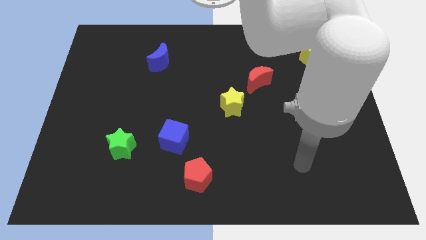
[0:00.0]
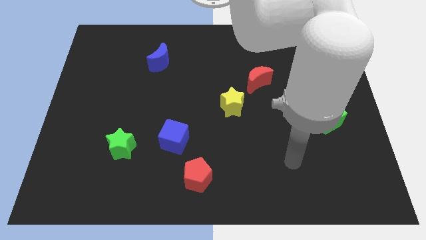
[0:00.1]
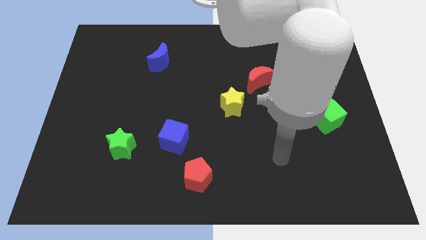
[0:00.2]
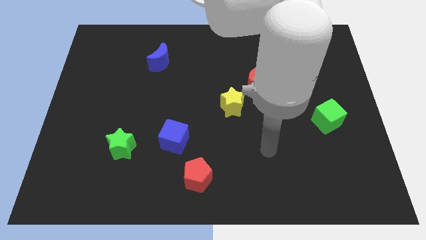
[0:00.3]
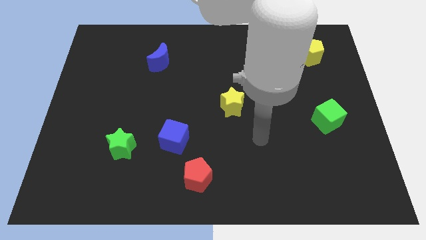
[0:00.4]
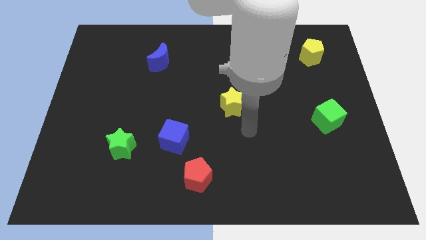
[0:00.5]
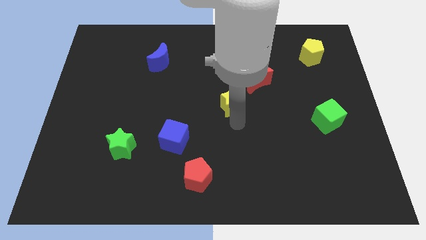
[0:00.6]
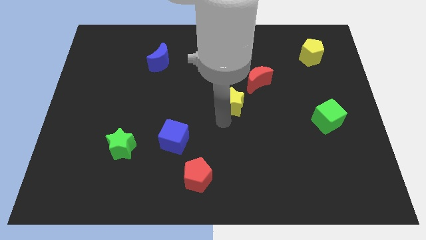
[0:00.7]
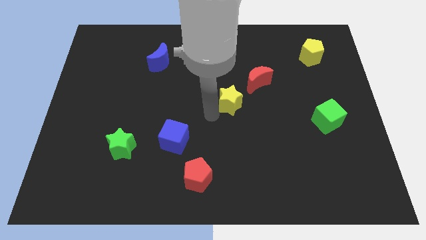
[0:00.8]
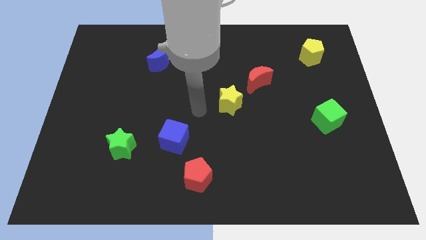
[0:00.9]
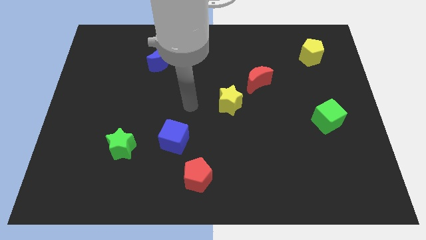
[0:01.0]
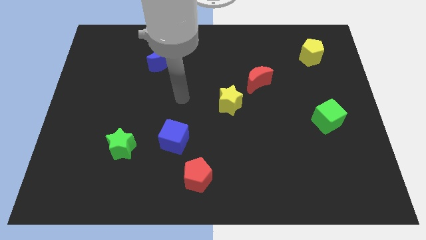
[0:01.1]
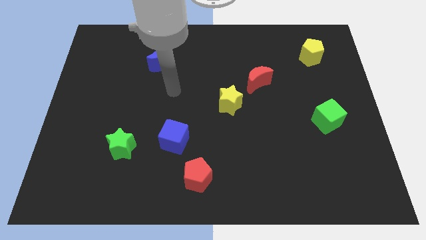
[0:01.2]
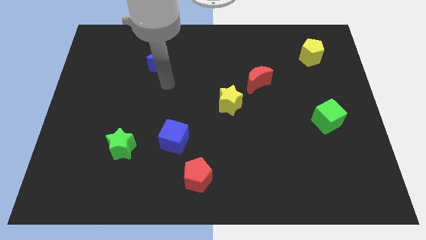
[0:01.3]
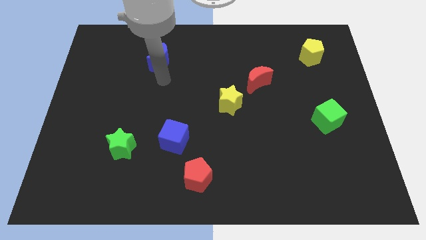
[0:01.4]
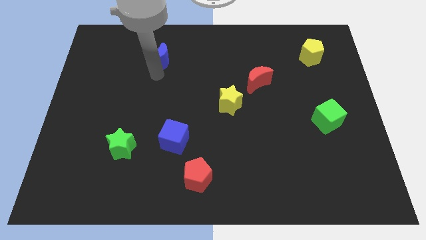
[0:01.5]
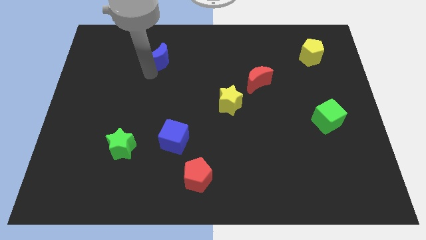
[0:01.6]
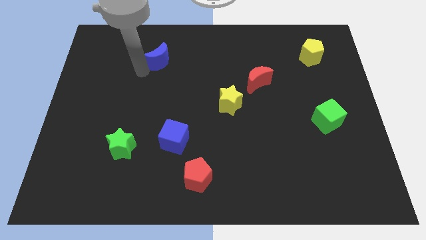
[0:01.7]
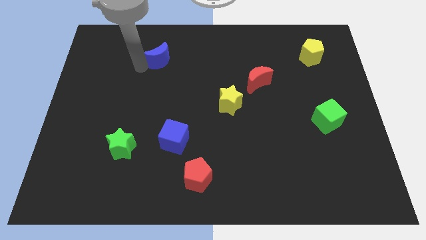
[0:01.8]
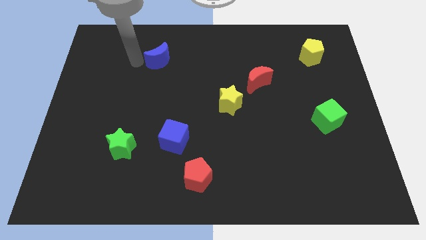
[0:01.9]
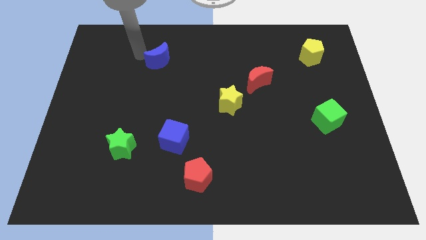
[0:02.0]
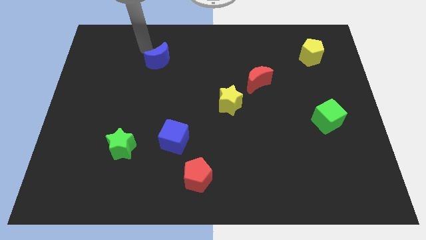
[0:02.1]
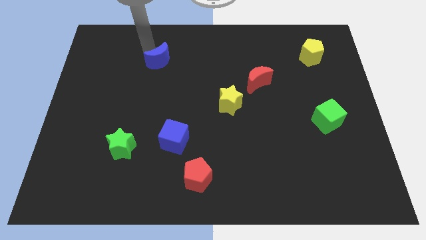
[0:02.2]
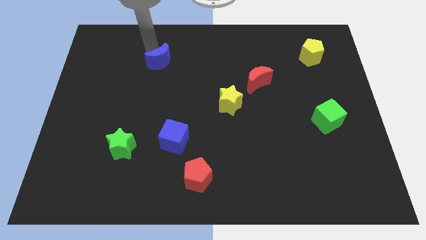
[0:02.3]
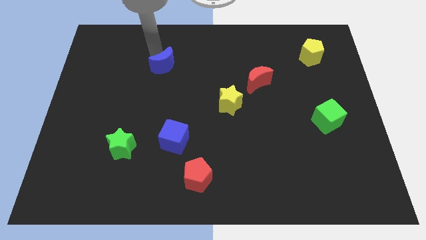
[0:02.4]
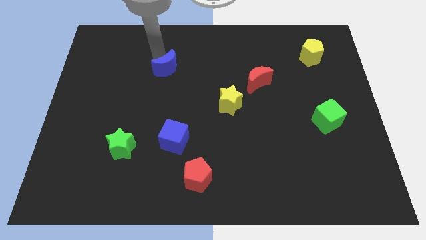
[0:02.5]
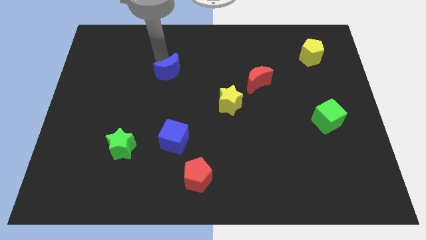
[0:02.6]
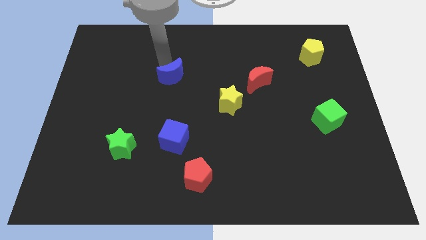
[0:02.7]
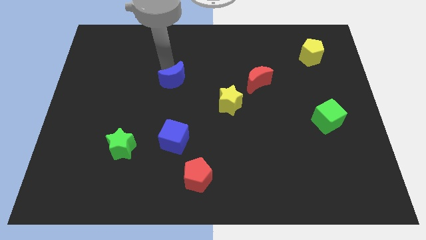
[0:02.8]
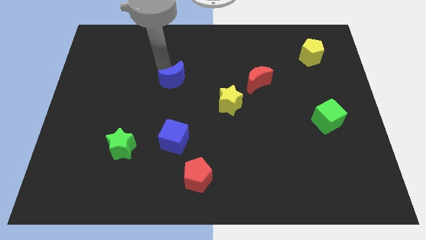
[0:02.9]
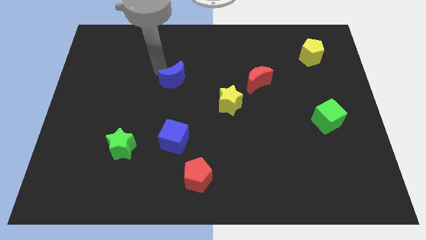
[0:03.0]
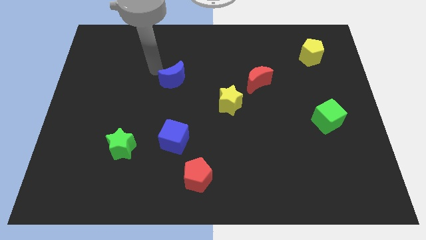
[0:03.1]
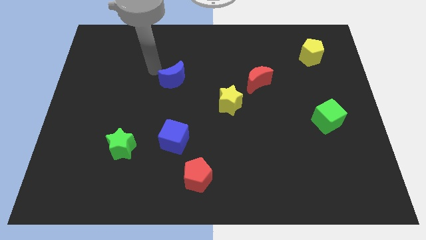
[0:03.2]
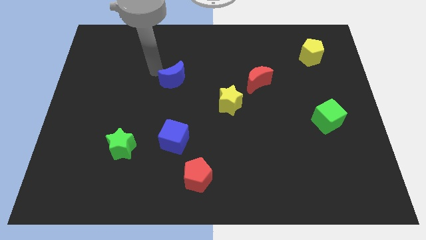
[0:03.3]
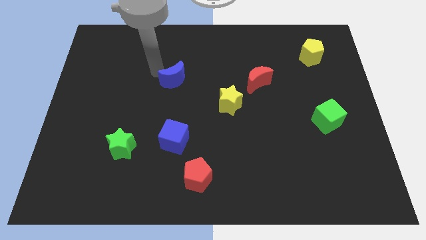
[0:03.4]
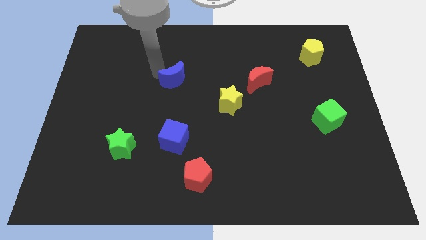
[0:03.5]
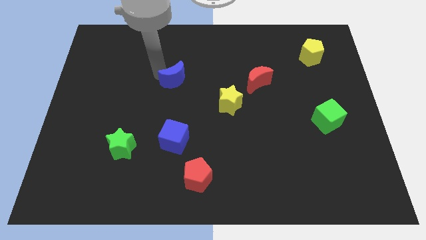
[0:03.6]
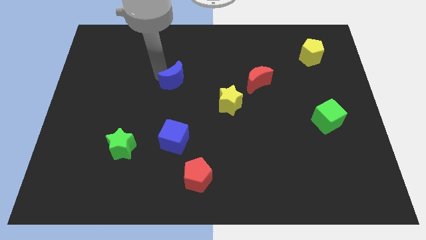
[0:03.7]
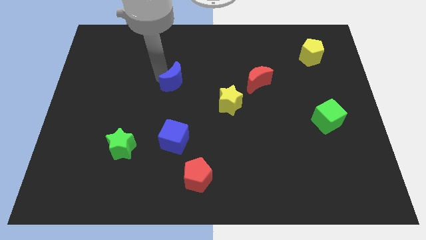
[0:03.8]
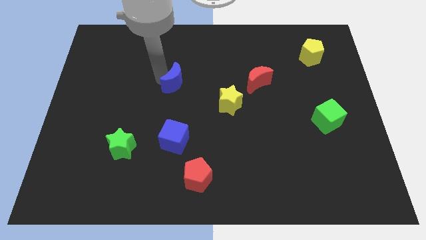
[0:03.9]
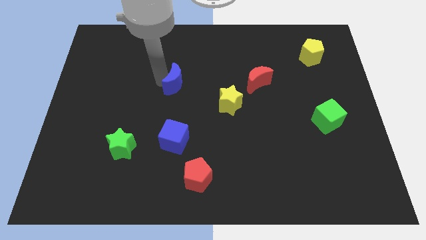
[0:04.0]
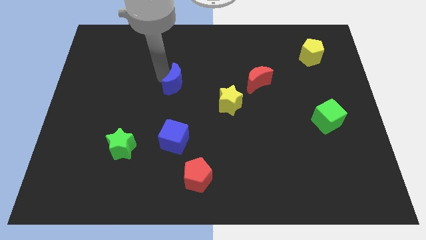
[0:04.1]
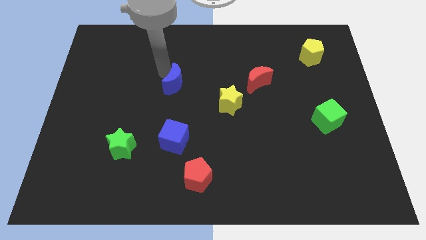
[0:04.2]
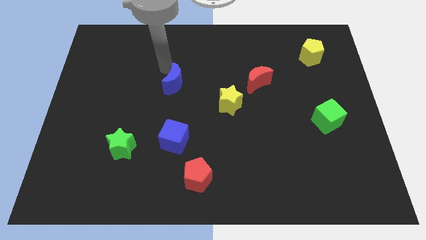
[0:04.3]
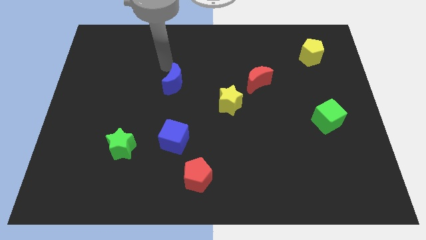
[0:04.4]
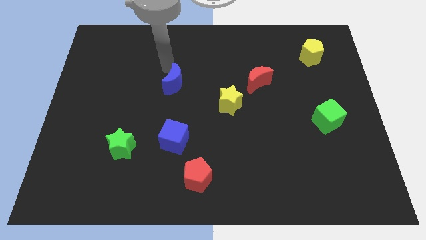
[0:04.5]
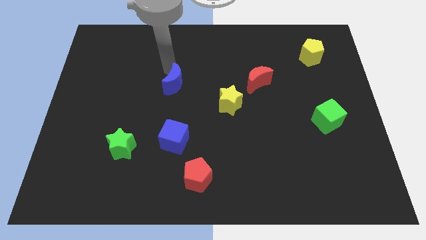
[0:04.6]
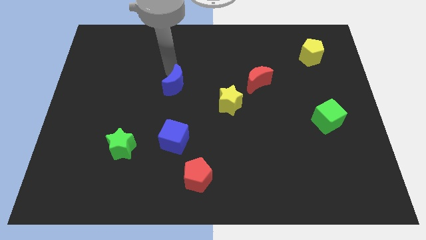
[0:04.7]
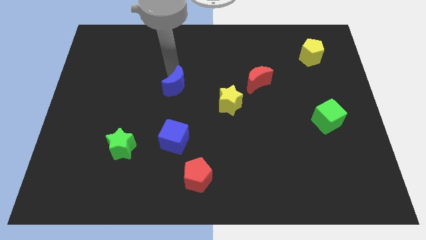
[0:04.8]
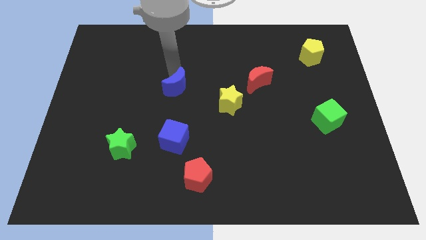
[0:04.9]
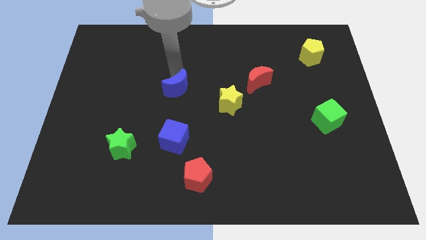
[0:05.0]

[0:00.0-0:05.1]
move the blue moon just left of the yellow star

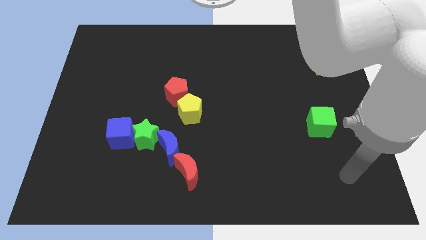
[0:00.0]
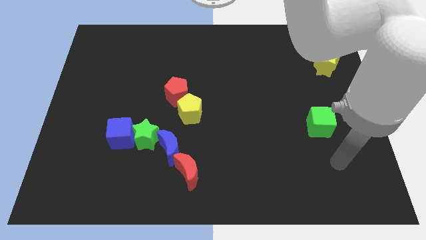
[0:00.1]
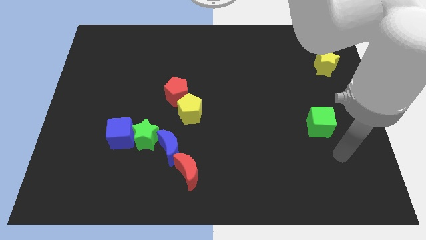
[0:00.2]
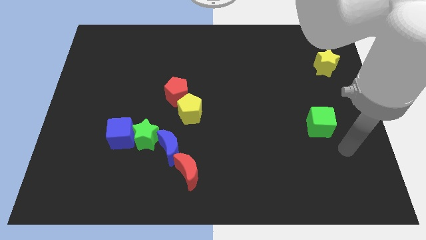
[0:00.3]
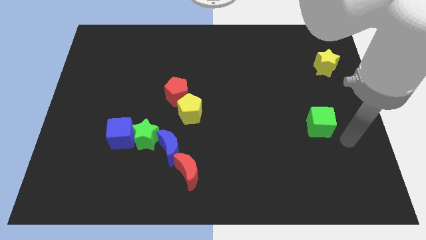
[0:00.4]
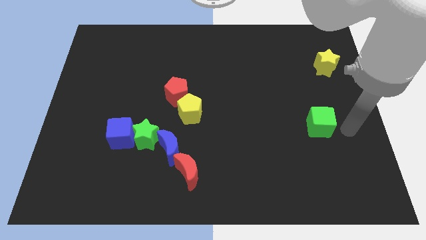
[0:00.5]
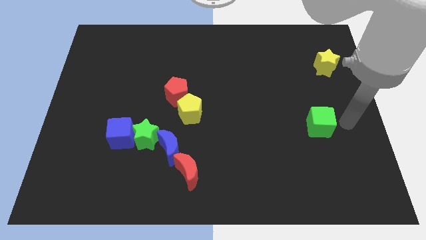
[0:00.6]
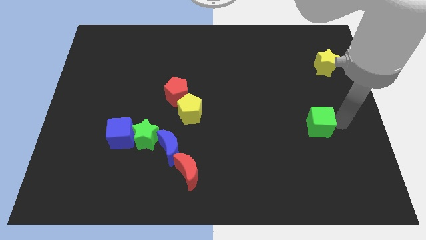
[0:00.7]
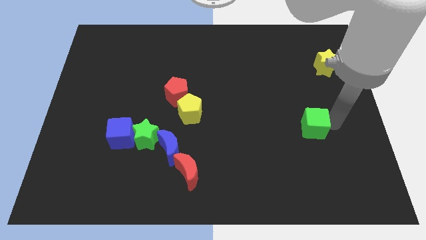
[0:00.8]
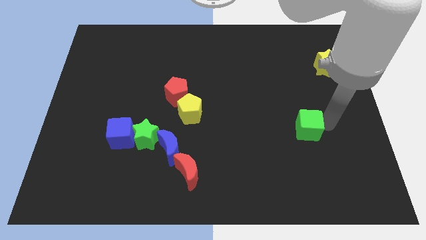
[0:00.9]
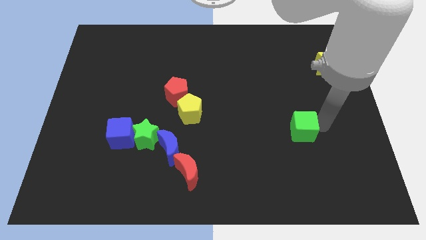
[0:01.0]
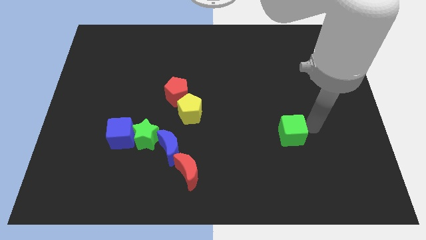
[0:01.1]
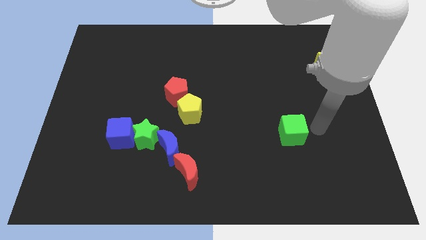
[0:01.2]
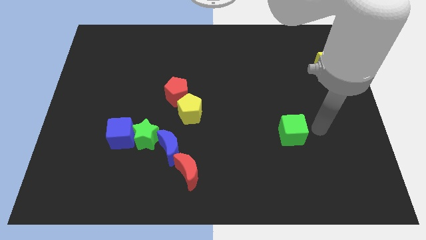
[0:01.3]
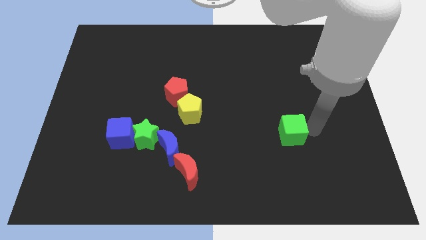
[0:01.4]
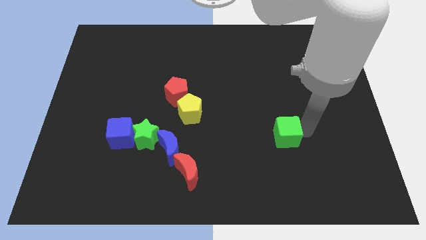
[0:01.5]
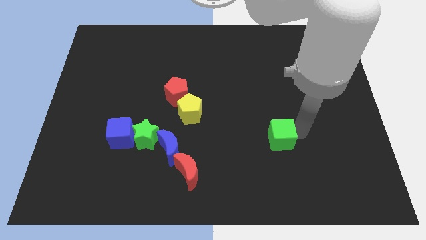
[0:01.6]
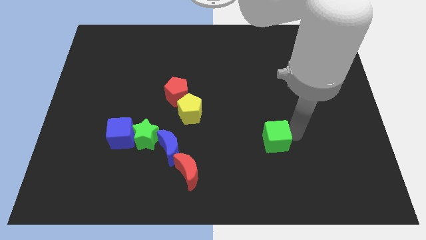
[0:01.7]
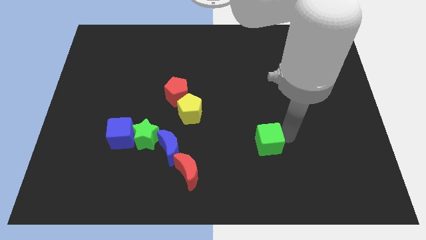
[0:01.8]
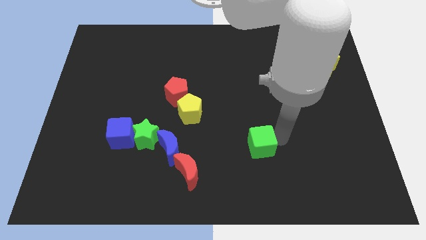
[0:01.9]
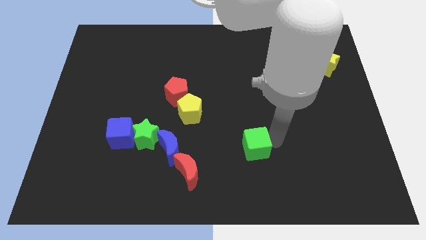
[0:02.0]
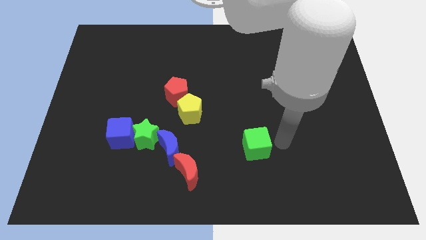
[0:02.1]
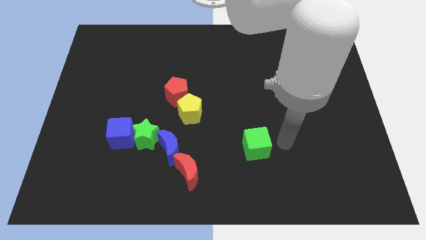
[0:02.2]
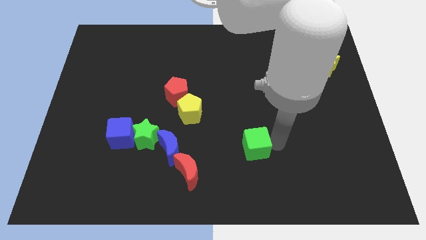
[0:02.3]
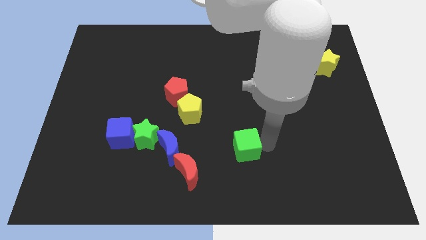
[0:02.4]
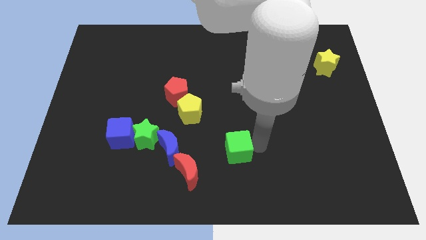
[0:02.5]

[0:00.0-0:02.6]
move the green cube to the top right side of the red moon

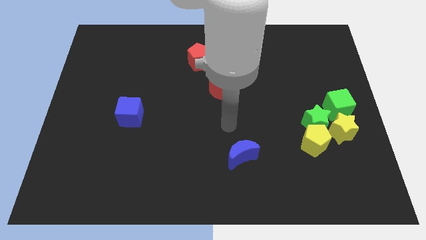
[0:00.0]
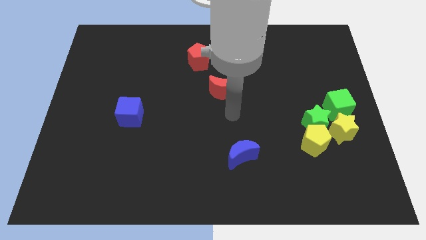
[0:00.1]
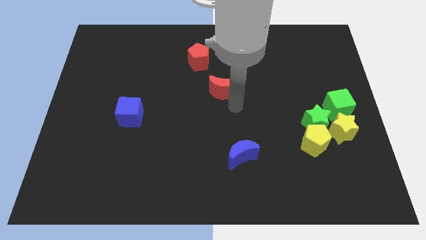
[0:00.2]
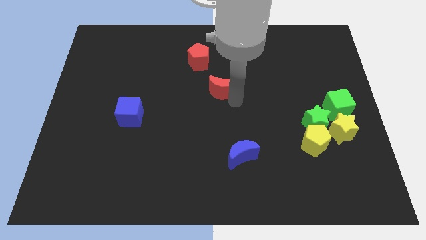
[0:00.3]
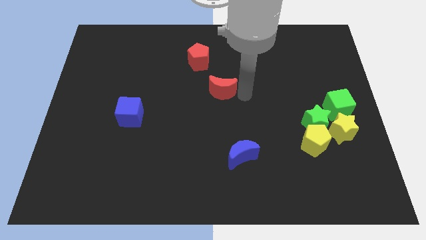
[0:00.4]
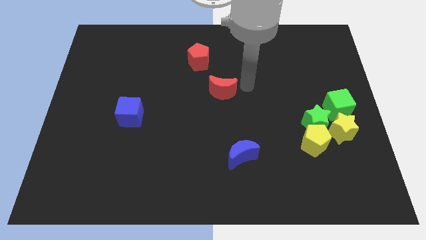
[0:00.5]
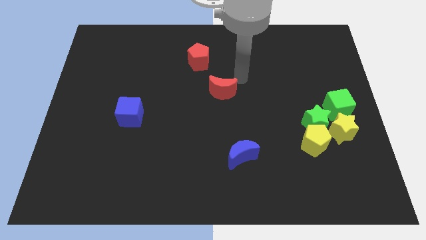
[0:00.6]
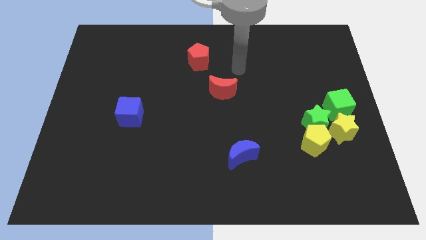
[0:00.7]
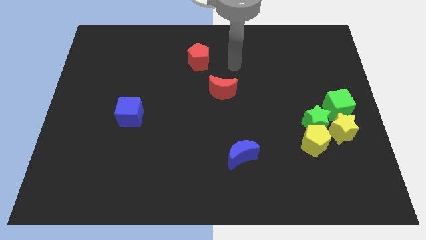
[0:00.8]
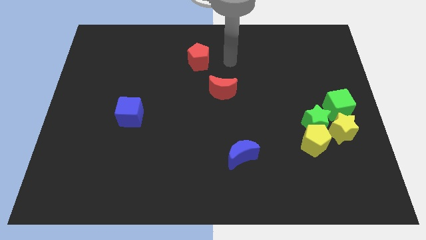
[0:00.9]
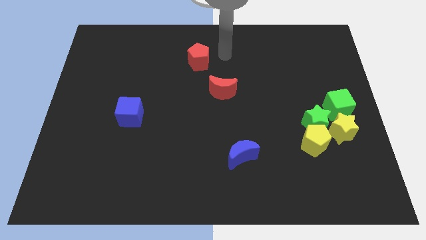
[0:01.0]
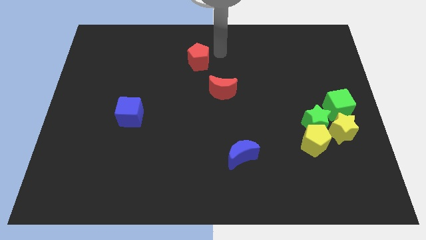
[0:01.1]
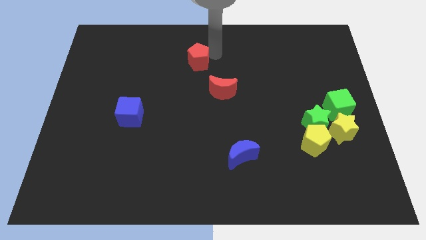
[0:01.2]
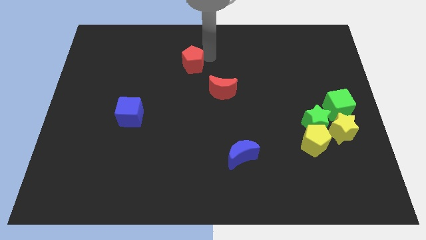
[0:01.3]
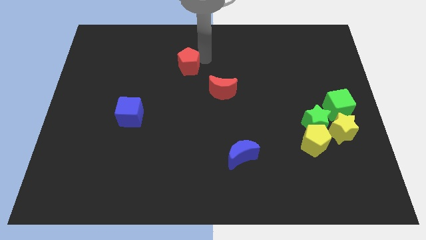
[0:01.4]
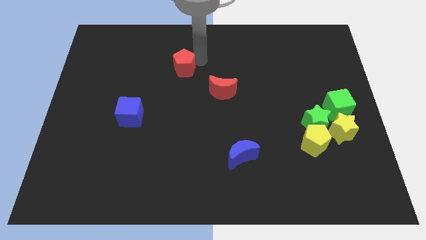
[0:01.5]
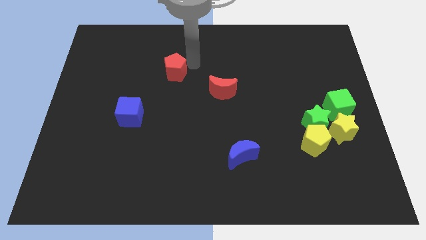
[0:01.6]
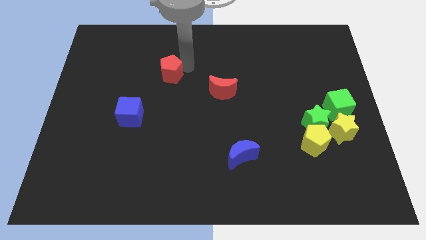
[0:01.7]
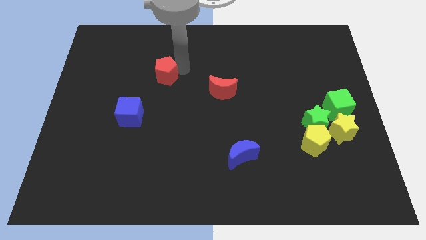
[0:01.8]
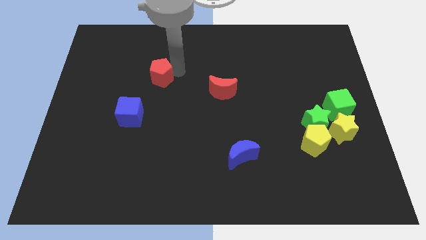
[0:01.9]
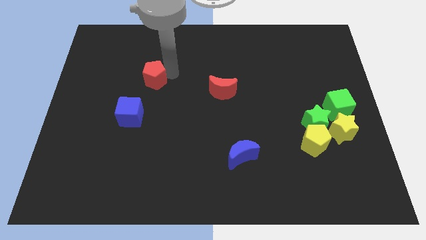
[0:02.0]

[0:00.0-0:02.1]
move the red pentagon to the top side of the blue cube
